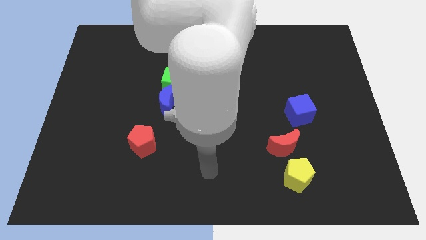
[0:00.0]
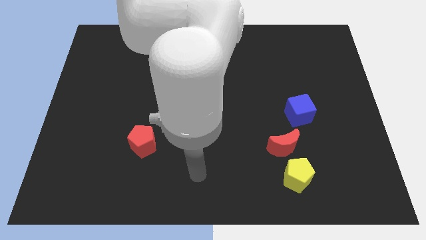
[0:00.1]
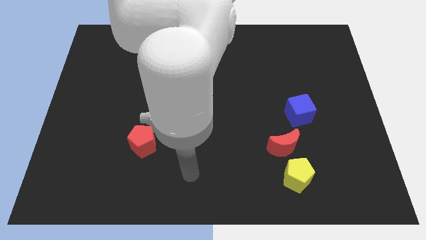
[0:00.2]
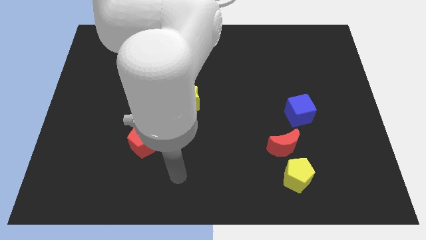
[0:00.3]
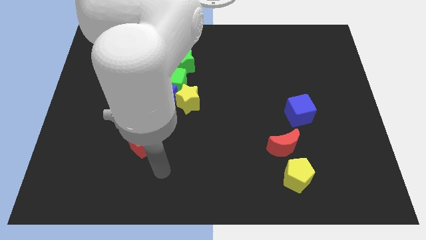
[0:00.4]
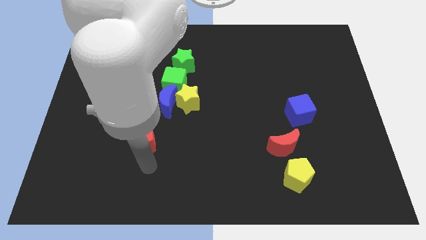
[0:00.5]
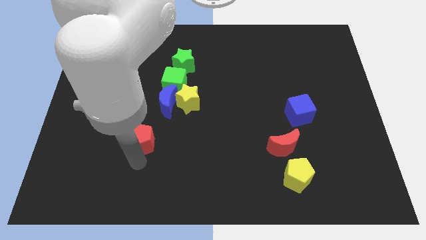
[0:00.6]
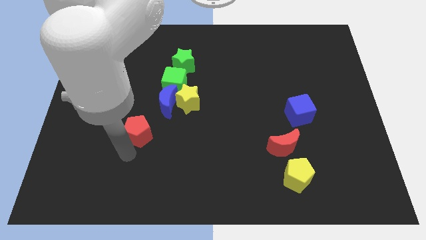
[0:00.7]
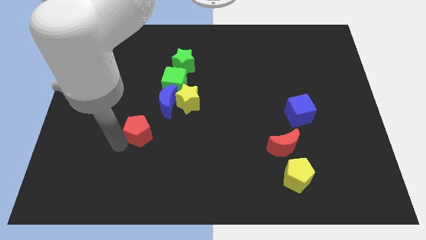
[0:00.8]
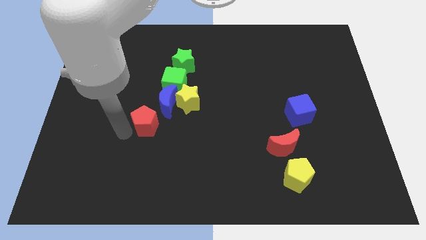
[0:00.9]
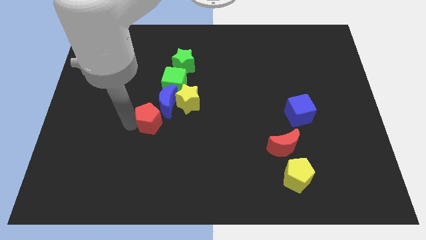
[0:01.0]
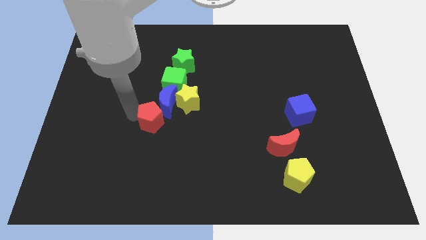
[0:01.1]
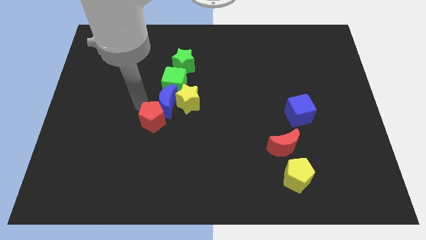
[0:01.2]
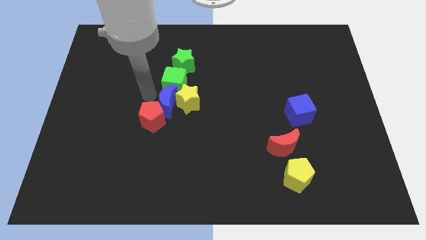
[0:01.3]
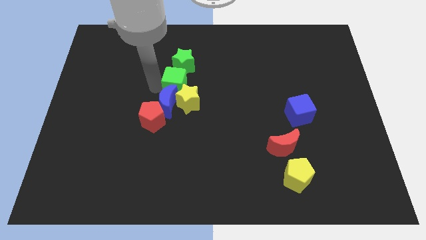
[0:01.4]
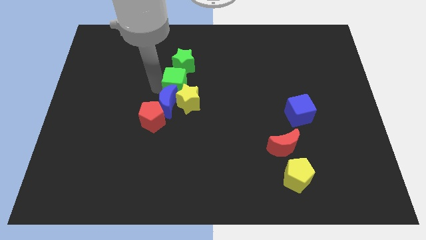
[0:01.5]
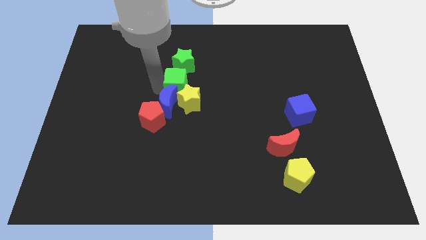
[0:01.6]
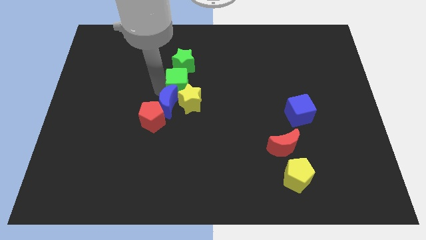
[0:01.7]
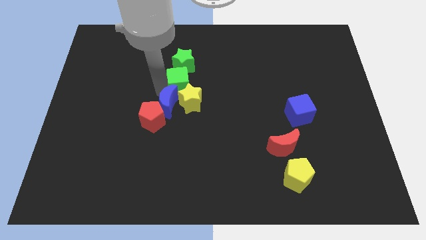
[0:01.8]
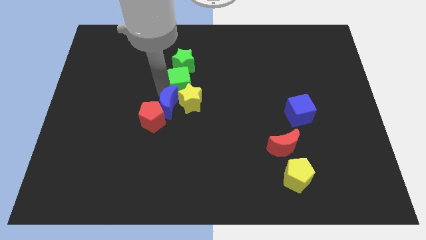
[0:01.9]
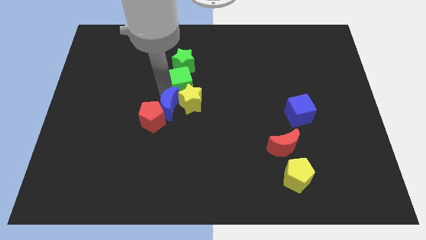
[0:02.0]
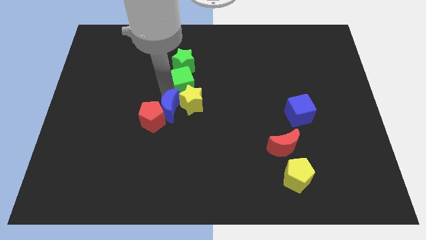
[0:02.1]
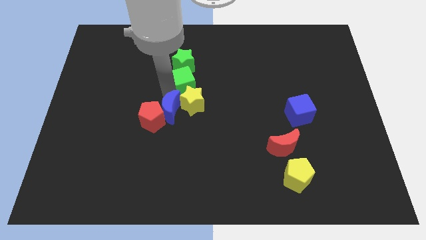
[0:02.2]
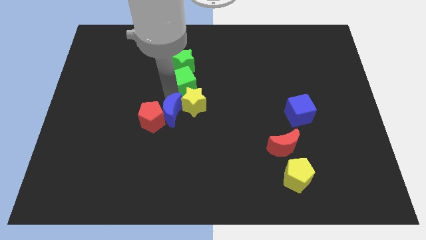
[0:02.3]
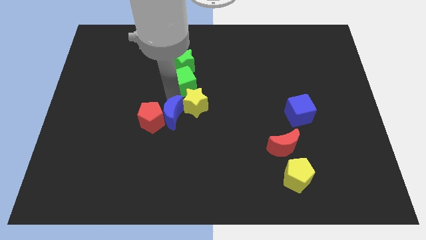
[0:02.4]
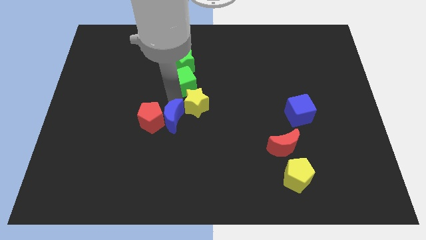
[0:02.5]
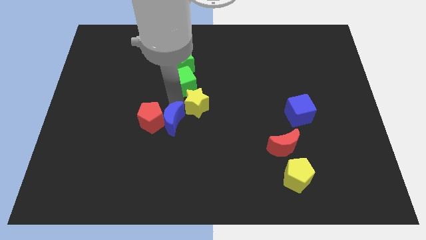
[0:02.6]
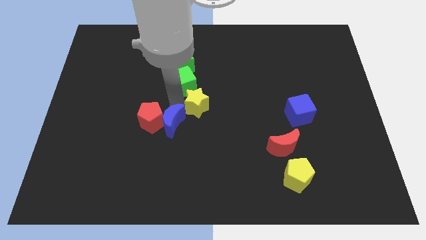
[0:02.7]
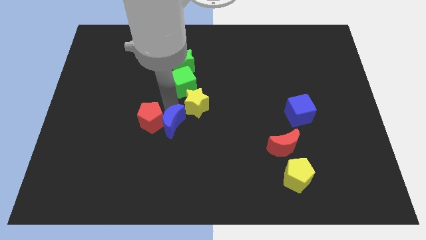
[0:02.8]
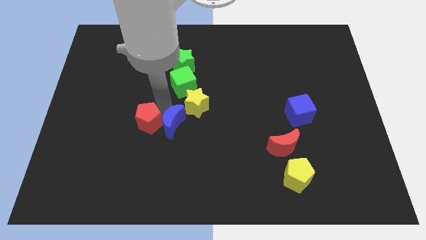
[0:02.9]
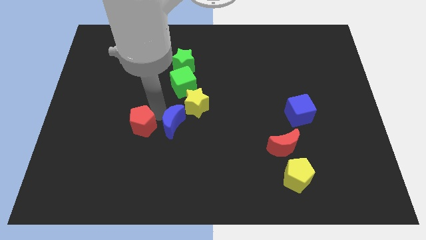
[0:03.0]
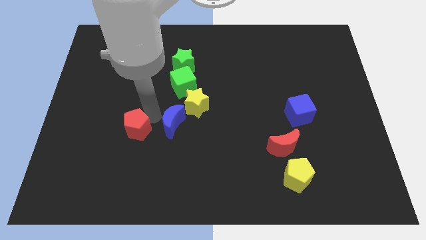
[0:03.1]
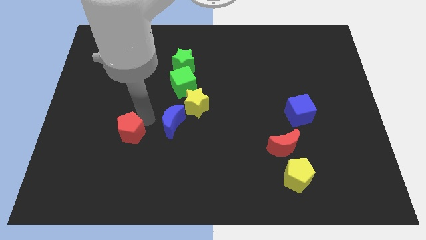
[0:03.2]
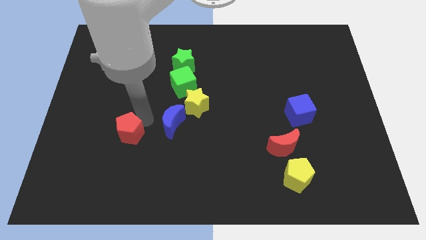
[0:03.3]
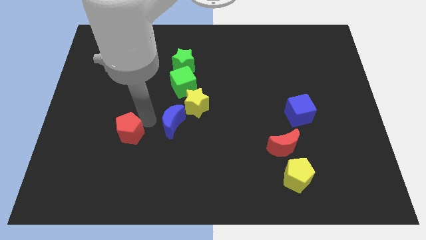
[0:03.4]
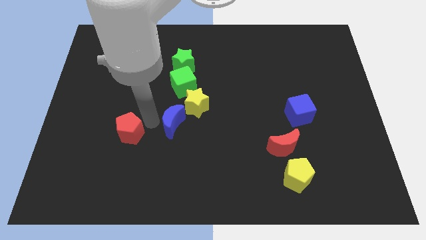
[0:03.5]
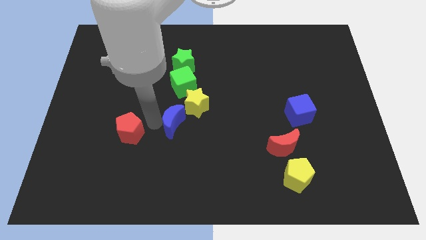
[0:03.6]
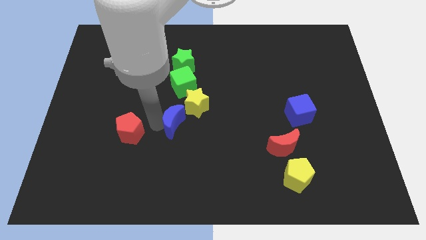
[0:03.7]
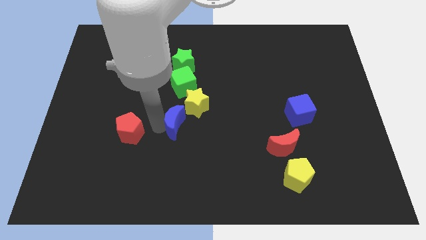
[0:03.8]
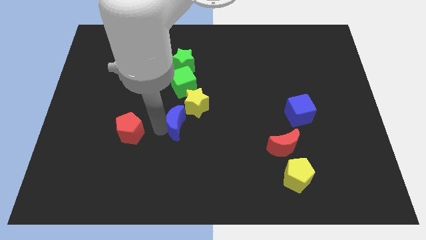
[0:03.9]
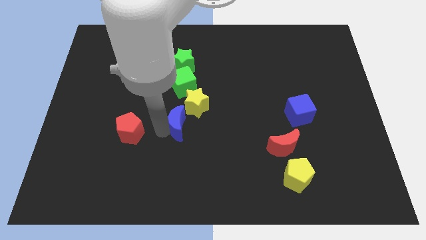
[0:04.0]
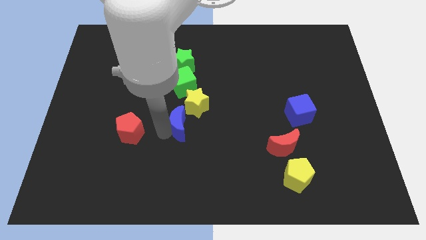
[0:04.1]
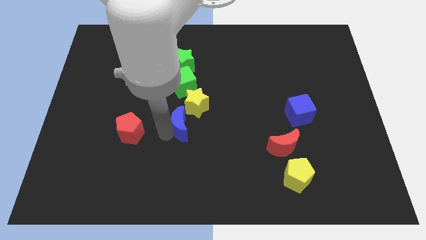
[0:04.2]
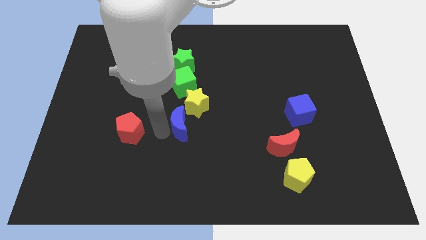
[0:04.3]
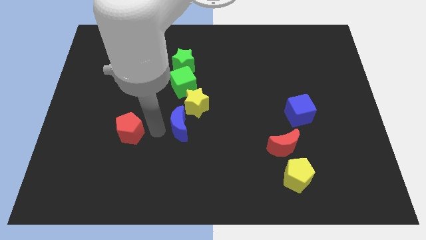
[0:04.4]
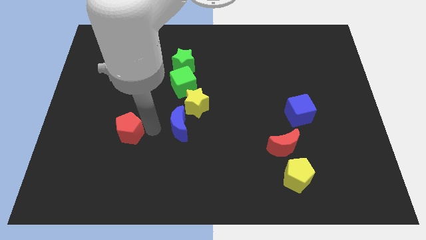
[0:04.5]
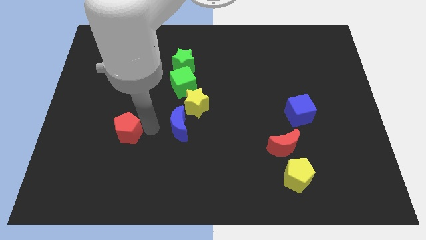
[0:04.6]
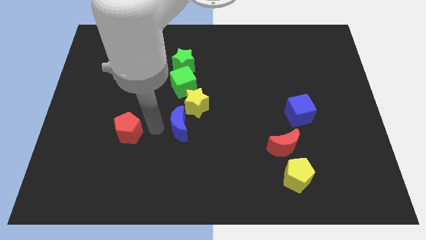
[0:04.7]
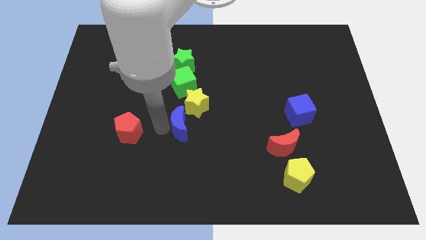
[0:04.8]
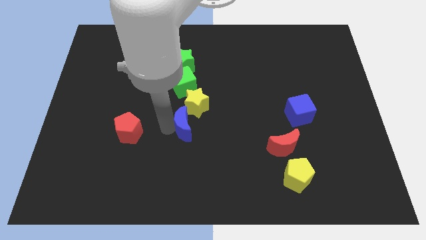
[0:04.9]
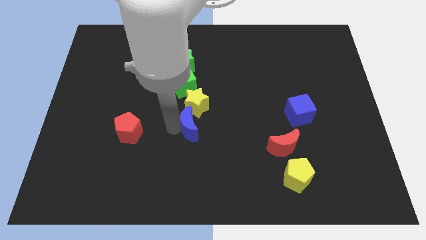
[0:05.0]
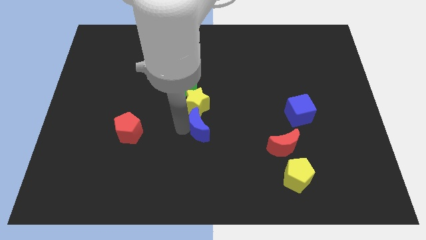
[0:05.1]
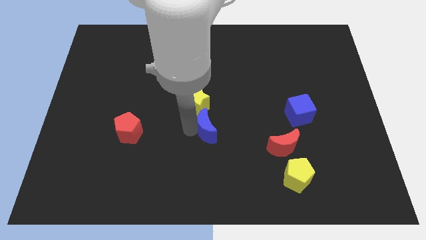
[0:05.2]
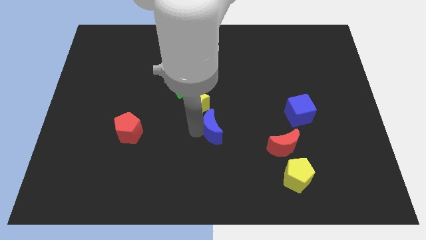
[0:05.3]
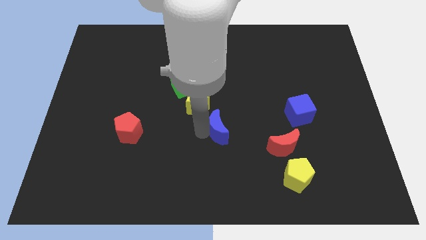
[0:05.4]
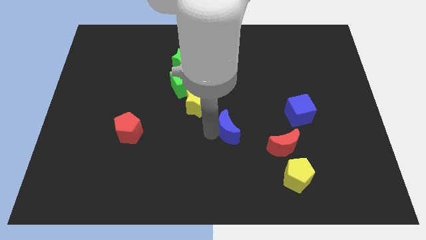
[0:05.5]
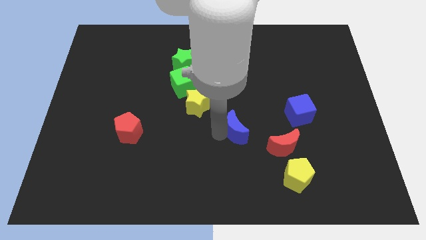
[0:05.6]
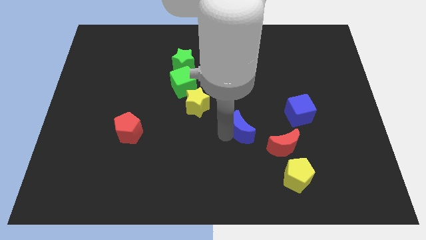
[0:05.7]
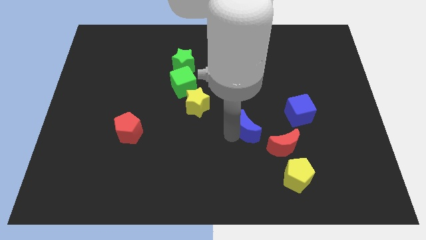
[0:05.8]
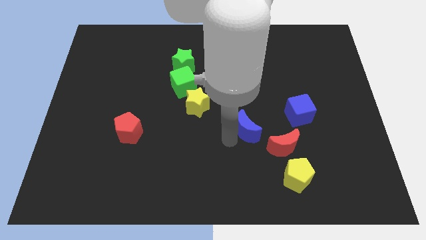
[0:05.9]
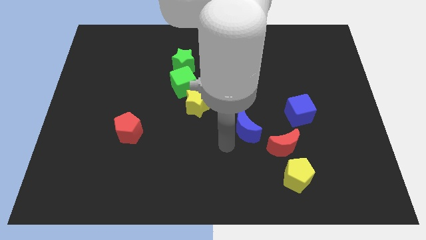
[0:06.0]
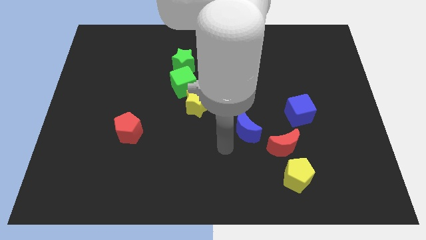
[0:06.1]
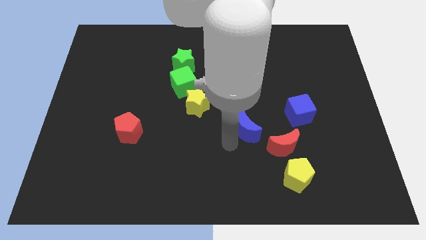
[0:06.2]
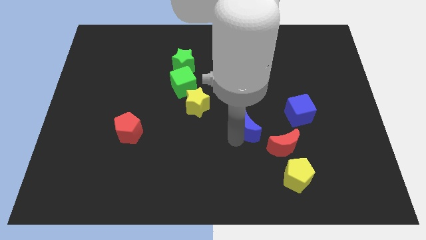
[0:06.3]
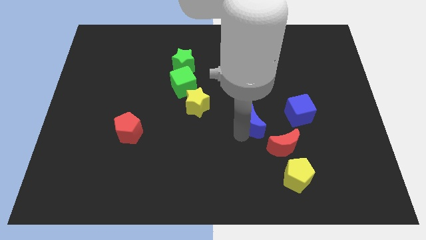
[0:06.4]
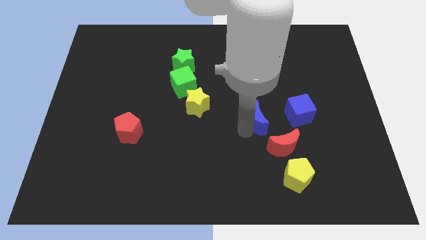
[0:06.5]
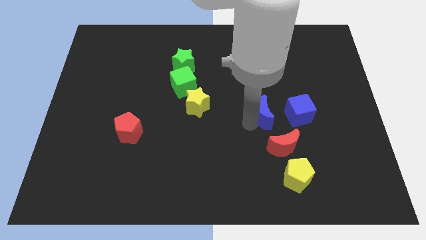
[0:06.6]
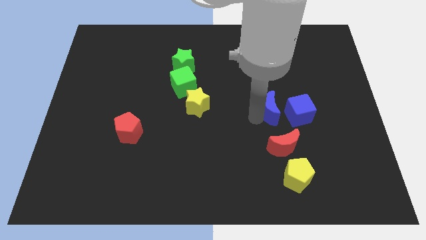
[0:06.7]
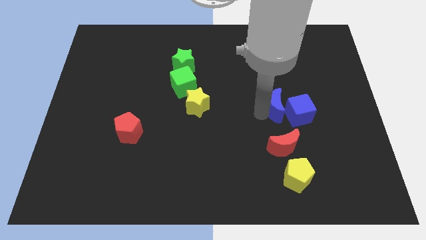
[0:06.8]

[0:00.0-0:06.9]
move the blue moon towards the blue cube
